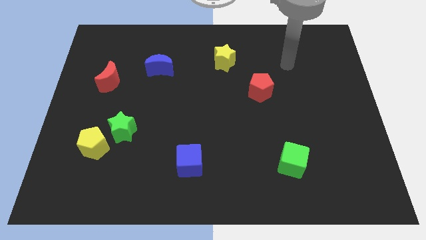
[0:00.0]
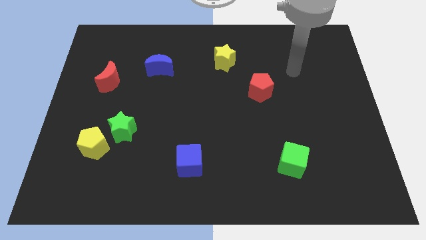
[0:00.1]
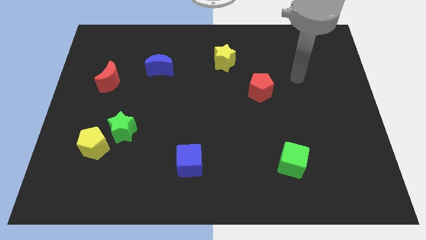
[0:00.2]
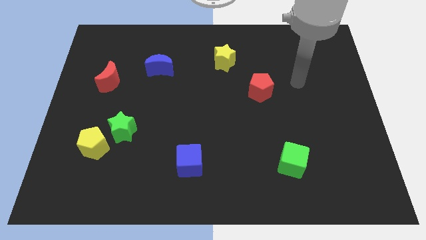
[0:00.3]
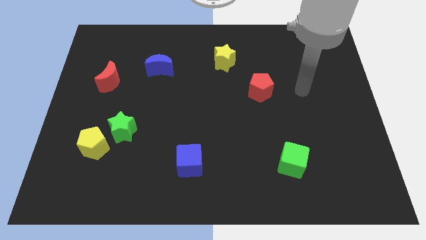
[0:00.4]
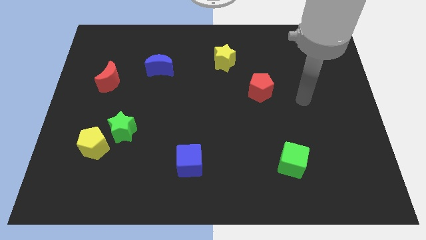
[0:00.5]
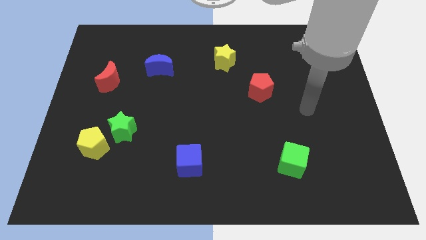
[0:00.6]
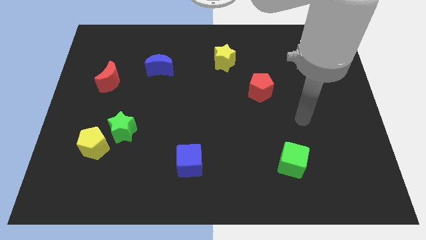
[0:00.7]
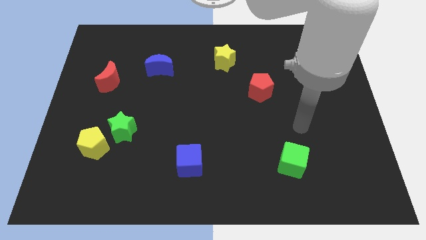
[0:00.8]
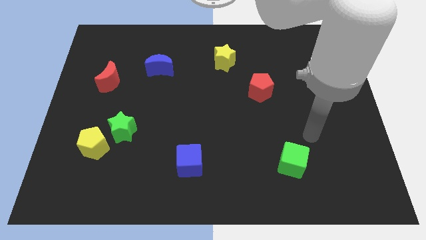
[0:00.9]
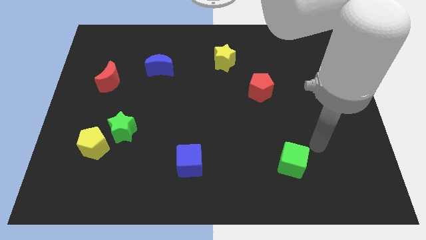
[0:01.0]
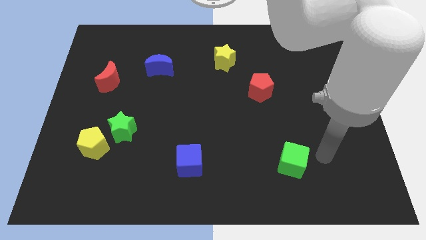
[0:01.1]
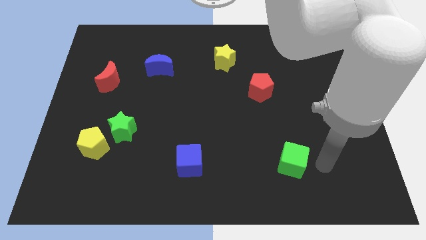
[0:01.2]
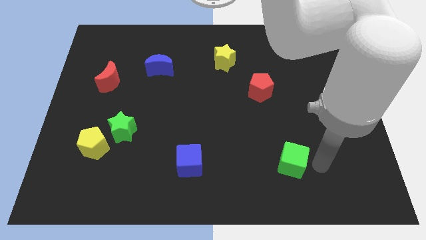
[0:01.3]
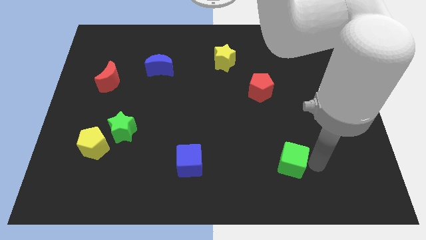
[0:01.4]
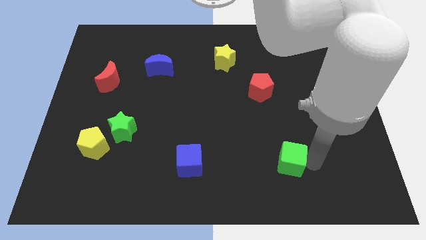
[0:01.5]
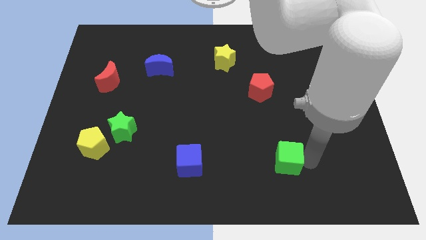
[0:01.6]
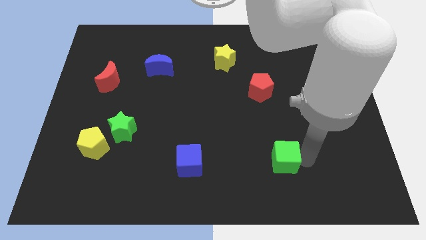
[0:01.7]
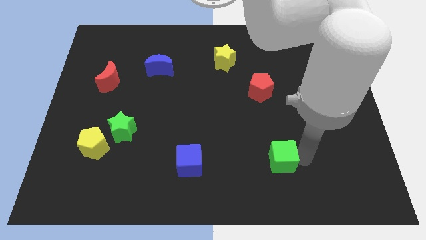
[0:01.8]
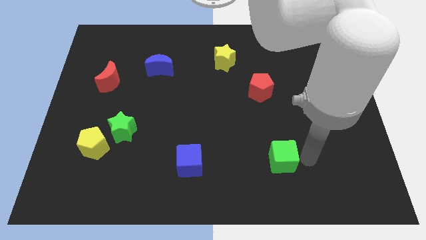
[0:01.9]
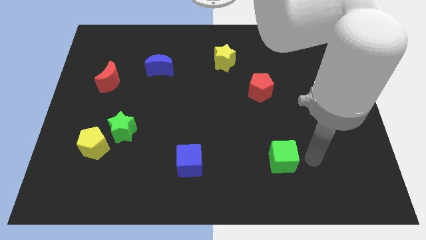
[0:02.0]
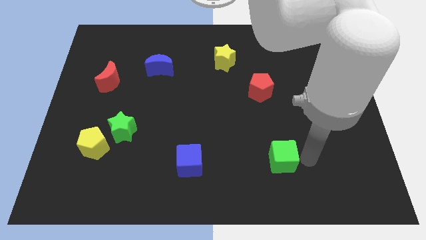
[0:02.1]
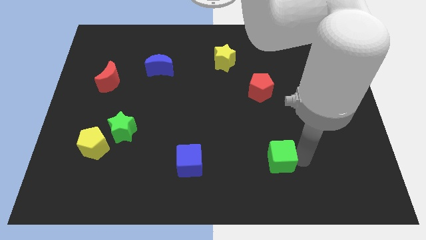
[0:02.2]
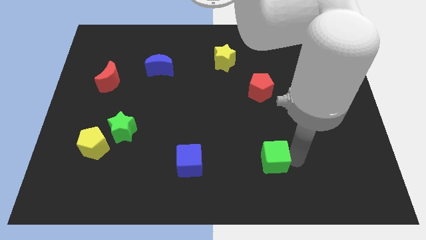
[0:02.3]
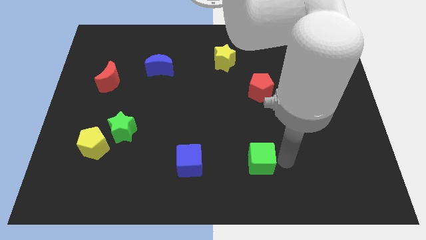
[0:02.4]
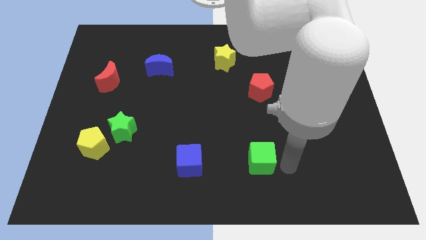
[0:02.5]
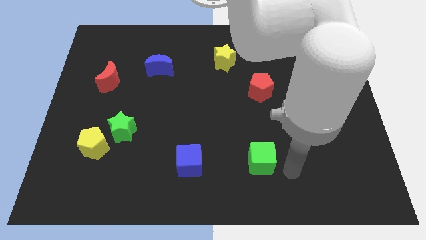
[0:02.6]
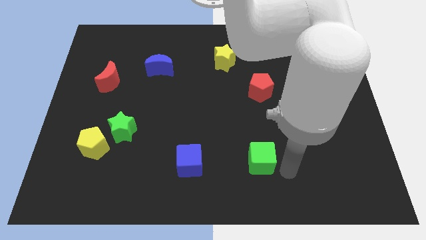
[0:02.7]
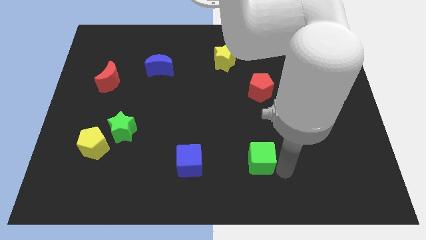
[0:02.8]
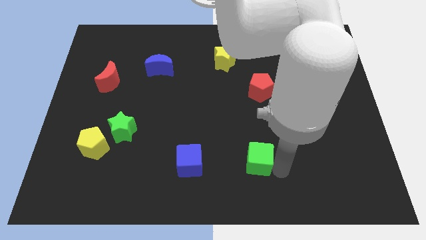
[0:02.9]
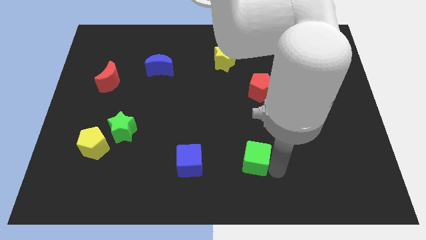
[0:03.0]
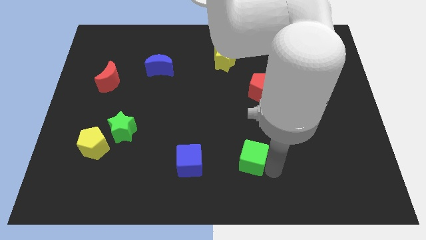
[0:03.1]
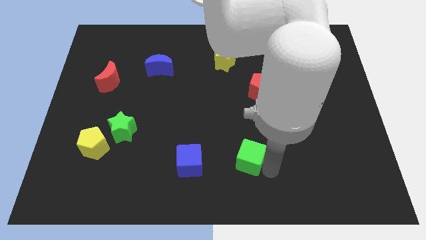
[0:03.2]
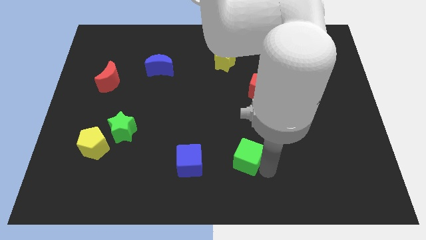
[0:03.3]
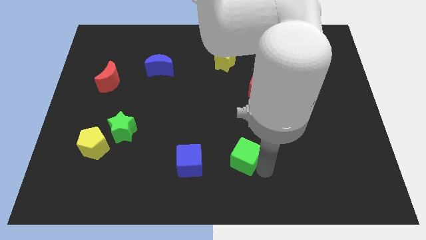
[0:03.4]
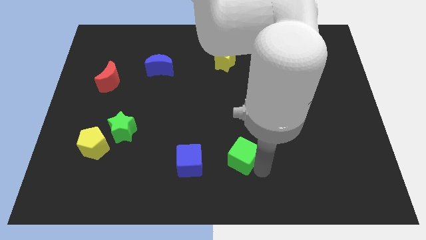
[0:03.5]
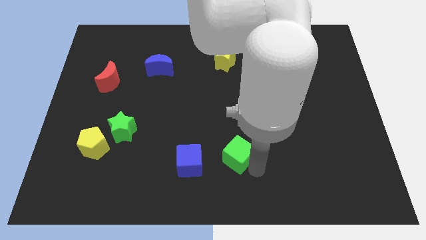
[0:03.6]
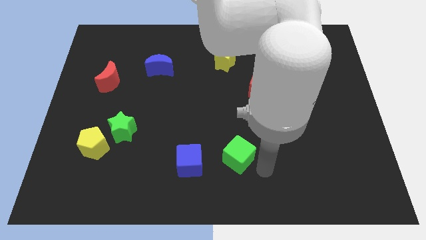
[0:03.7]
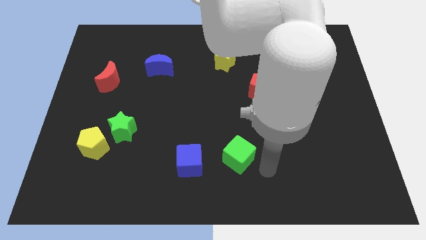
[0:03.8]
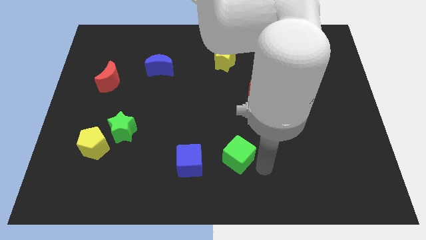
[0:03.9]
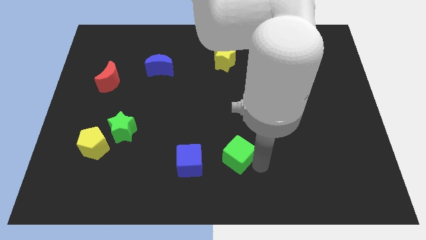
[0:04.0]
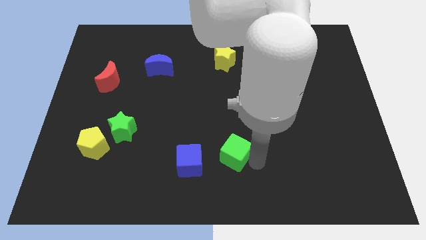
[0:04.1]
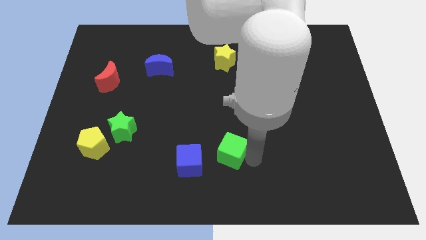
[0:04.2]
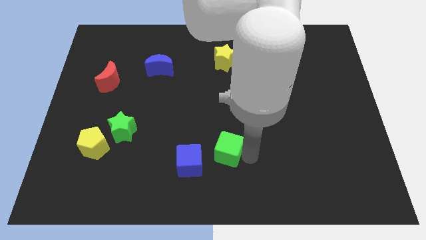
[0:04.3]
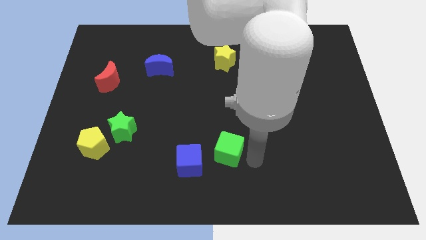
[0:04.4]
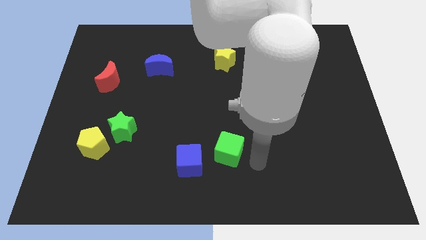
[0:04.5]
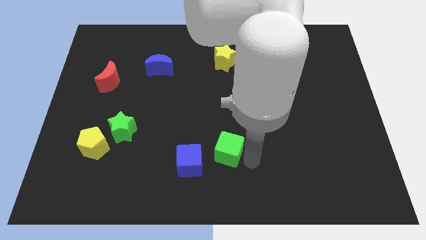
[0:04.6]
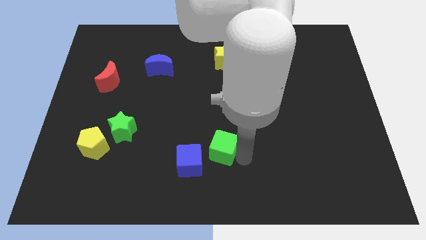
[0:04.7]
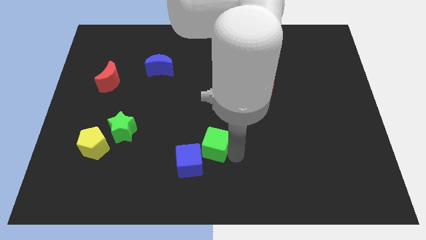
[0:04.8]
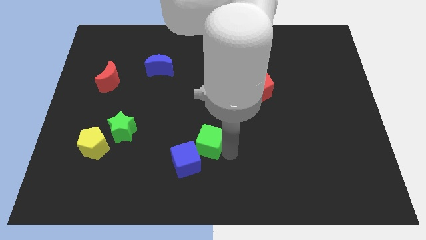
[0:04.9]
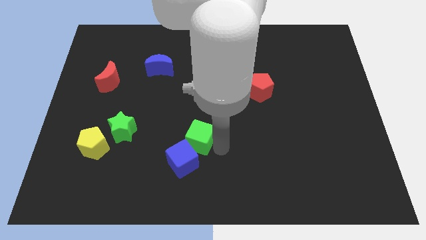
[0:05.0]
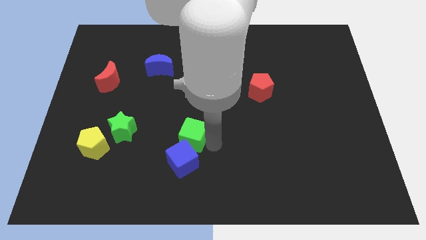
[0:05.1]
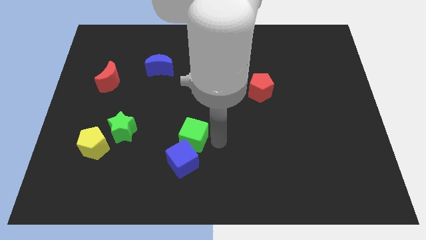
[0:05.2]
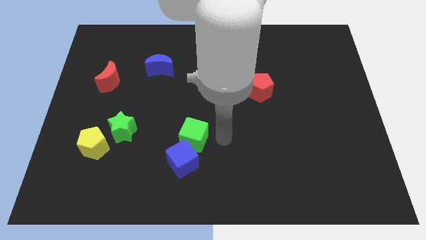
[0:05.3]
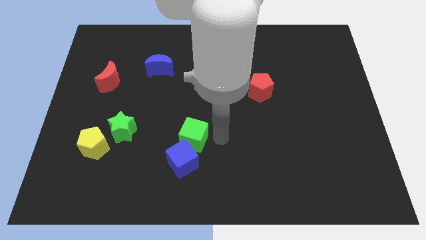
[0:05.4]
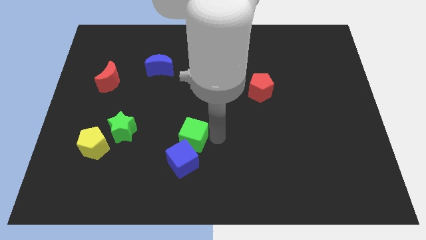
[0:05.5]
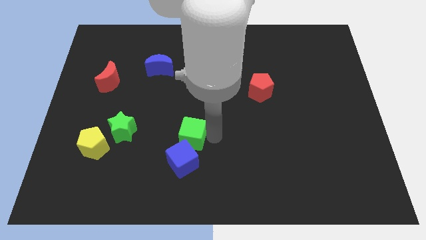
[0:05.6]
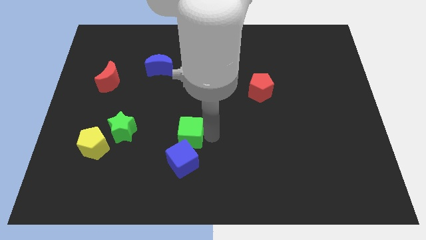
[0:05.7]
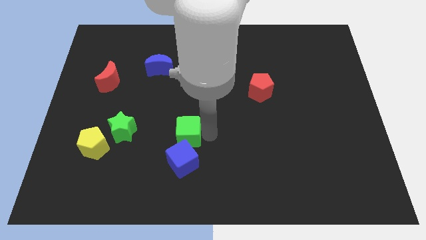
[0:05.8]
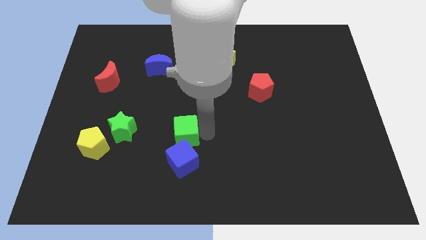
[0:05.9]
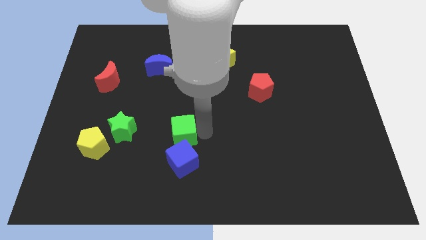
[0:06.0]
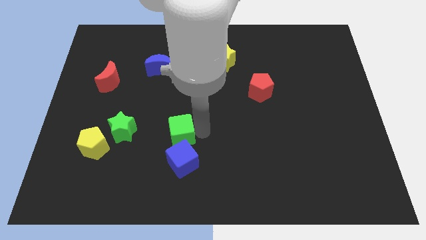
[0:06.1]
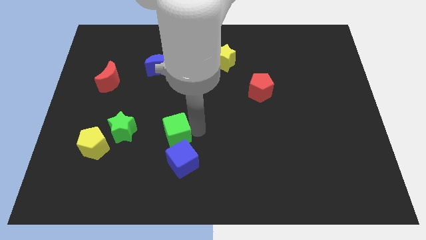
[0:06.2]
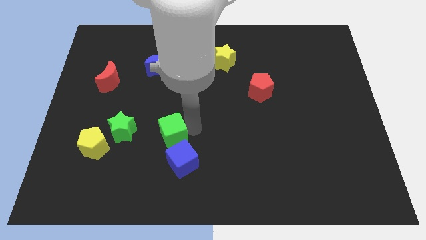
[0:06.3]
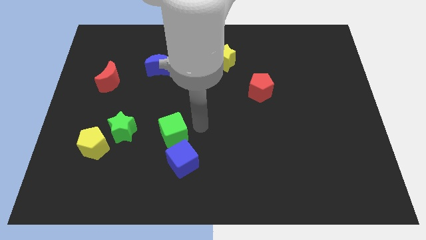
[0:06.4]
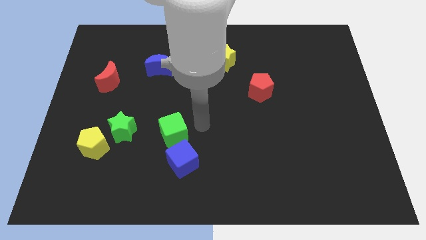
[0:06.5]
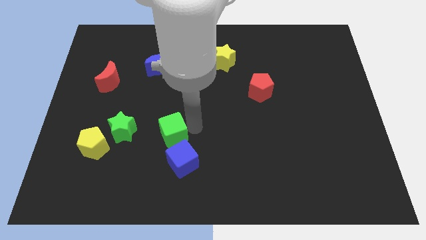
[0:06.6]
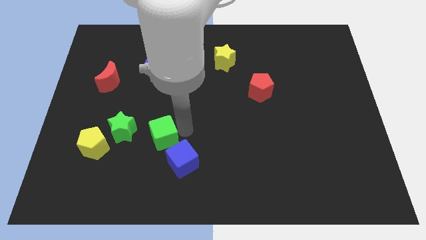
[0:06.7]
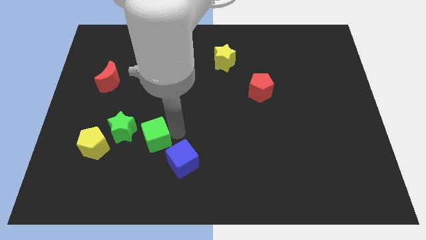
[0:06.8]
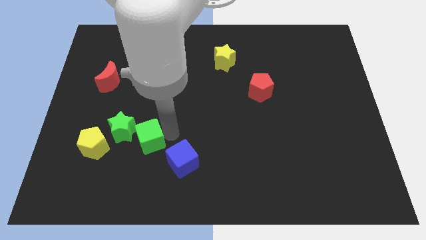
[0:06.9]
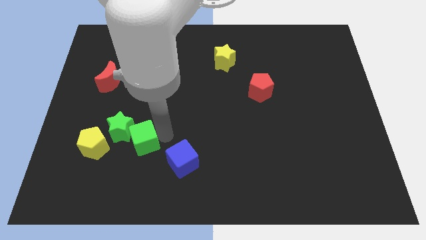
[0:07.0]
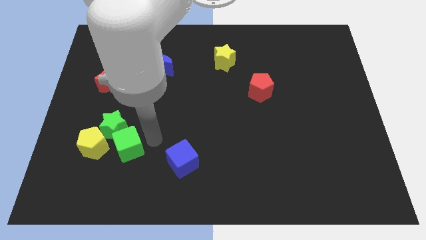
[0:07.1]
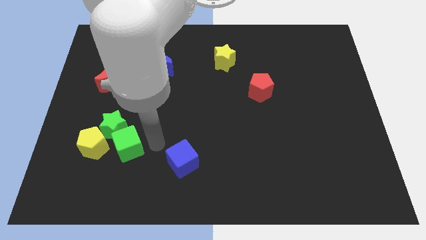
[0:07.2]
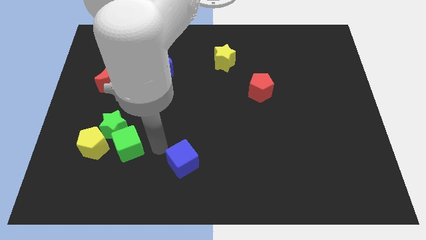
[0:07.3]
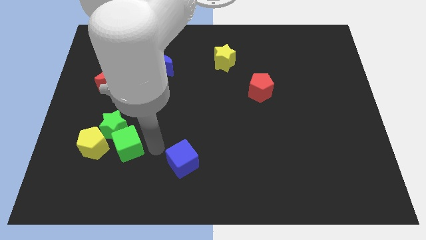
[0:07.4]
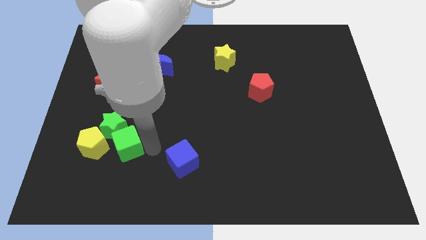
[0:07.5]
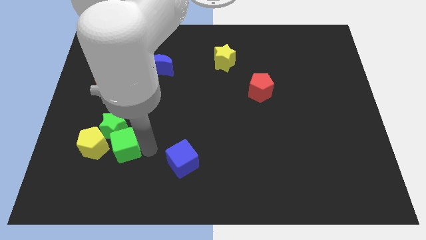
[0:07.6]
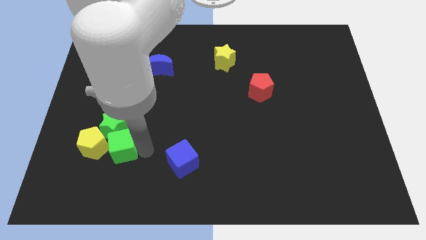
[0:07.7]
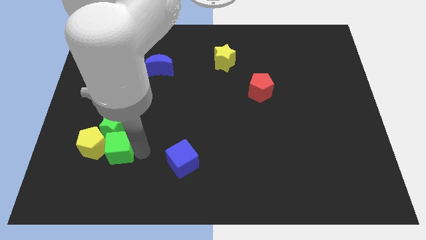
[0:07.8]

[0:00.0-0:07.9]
move the green cube towards the yellow pentagon
